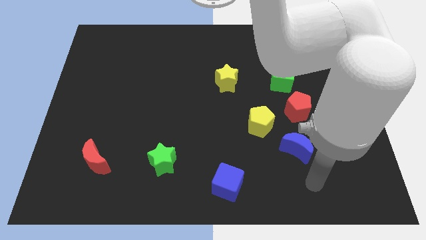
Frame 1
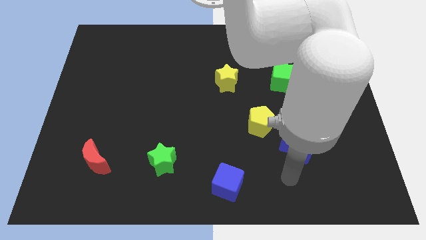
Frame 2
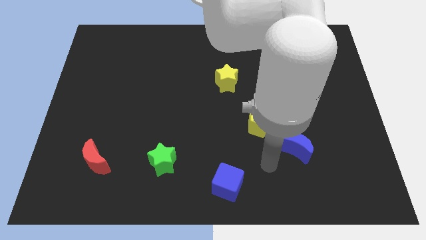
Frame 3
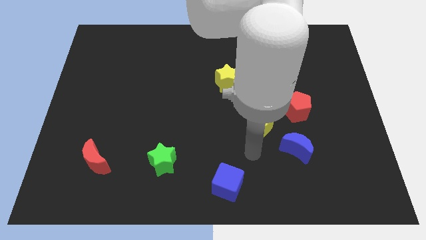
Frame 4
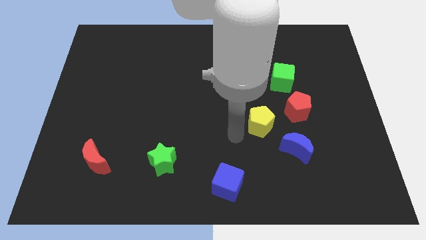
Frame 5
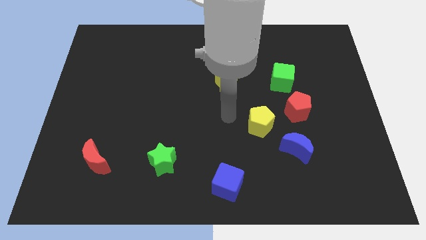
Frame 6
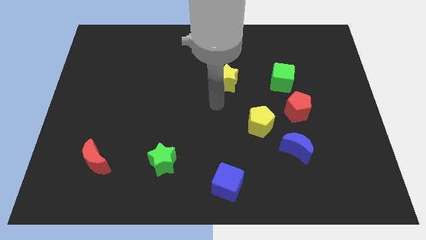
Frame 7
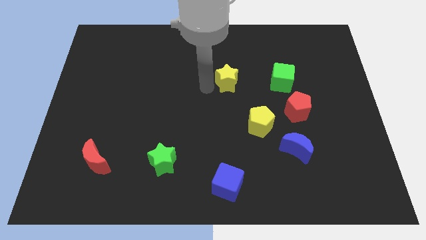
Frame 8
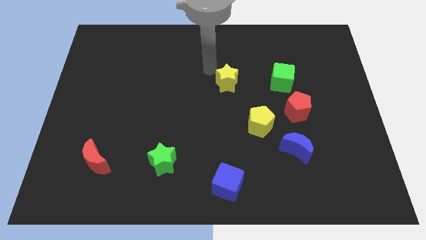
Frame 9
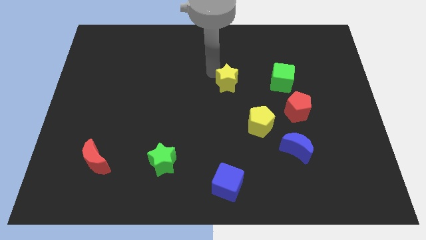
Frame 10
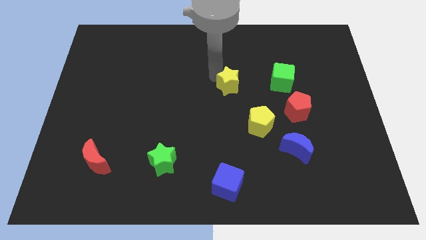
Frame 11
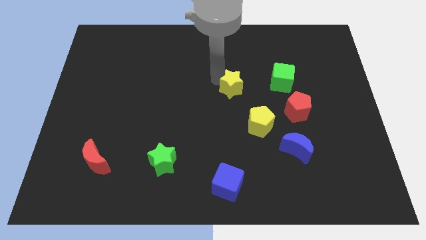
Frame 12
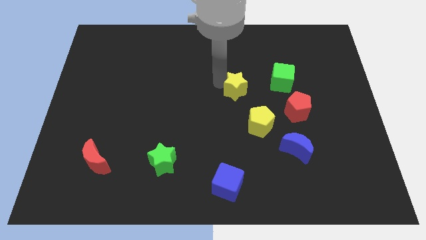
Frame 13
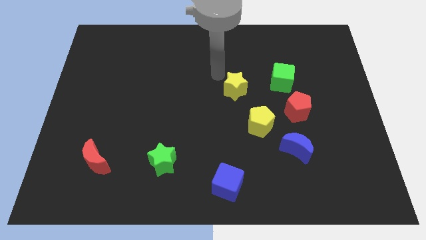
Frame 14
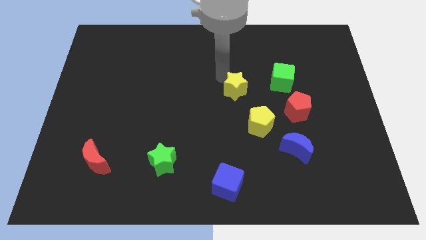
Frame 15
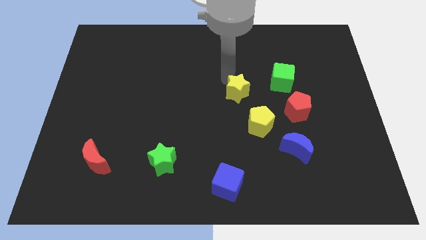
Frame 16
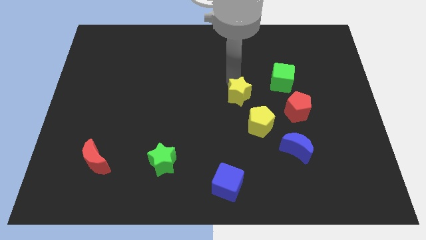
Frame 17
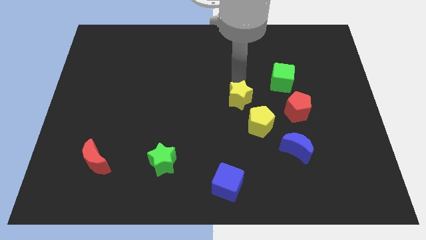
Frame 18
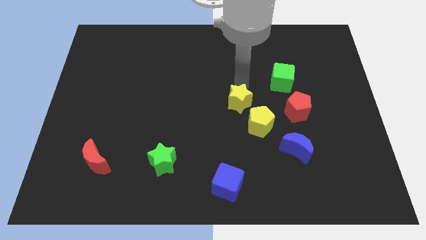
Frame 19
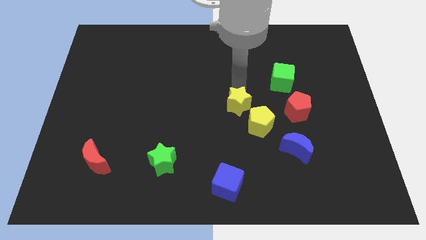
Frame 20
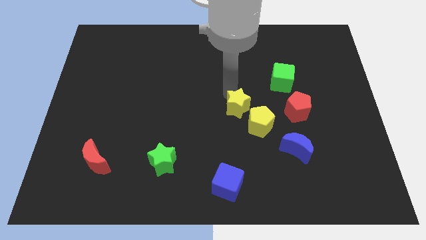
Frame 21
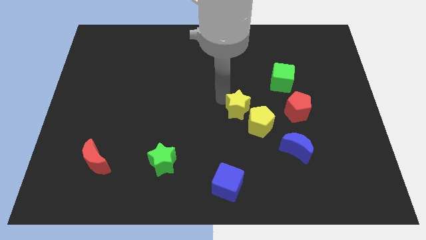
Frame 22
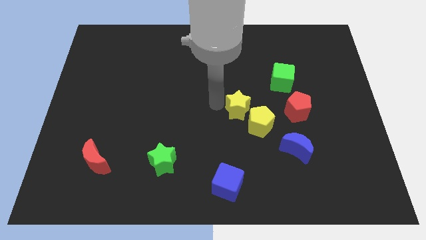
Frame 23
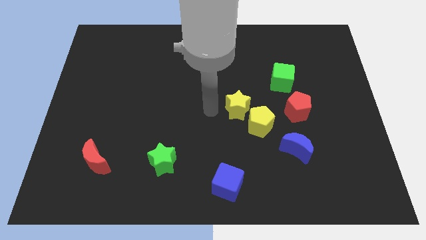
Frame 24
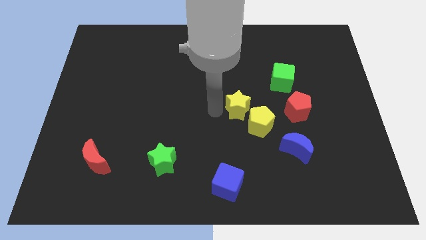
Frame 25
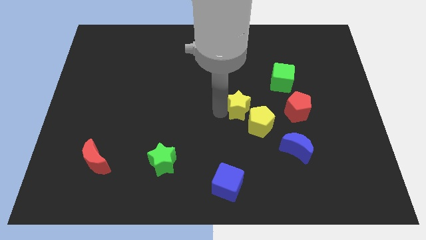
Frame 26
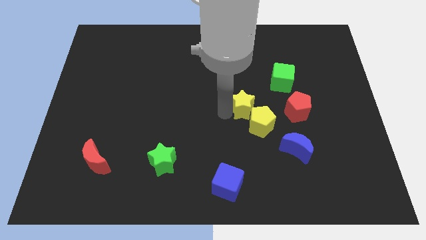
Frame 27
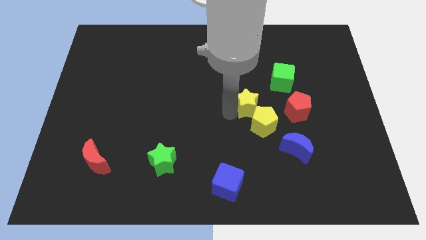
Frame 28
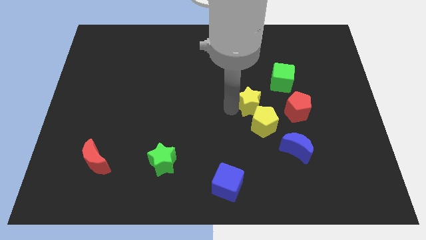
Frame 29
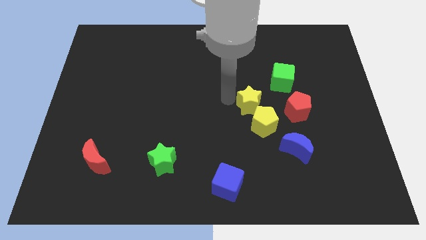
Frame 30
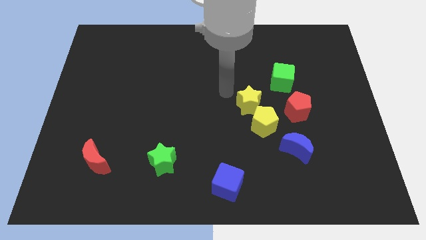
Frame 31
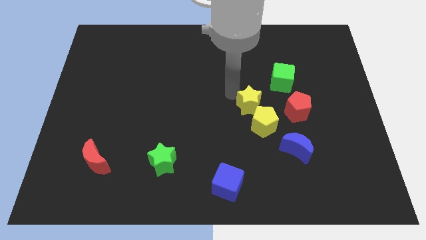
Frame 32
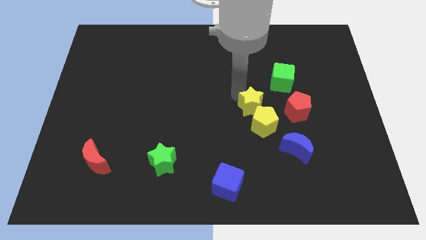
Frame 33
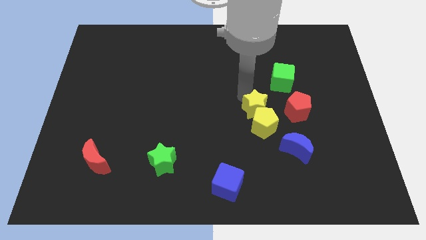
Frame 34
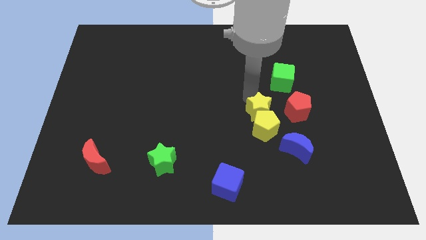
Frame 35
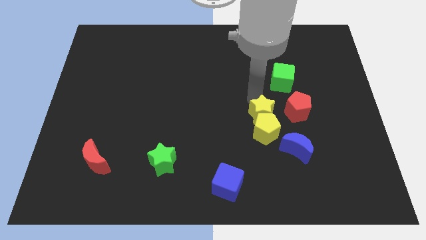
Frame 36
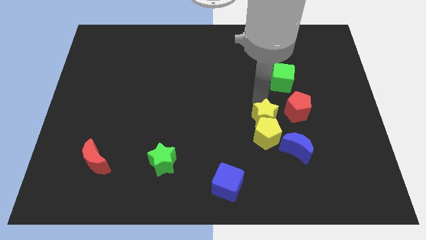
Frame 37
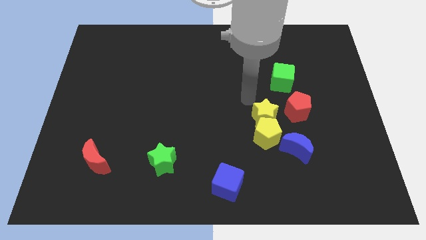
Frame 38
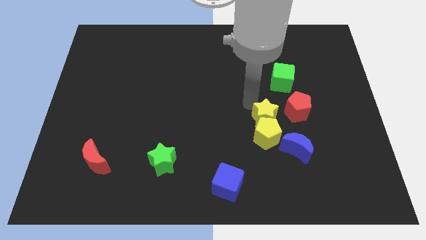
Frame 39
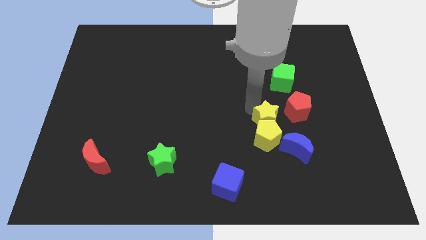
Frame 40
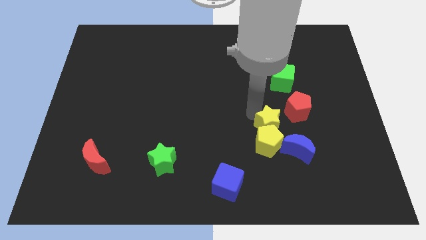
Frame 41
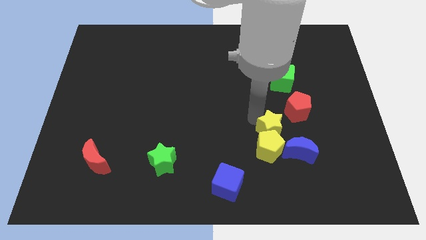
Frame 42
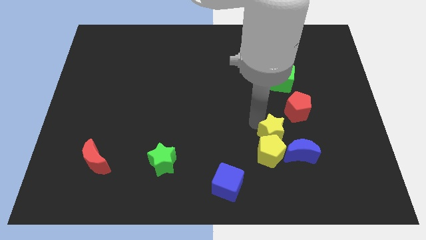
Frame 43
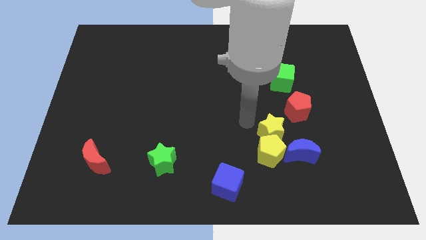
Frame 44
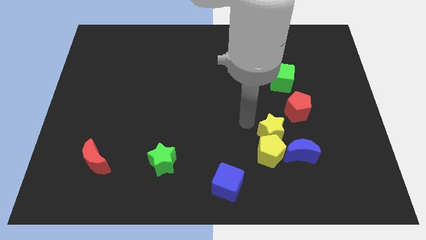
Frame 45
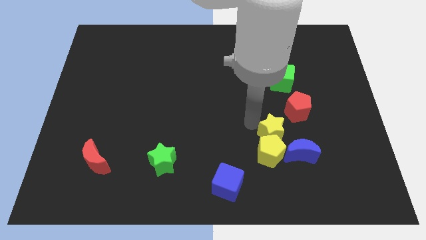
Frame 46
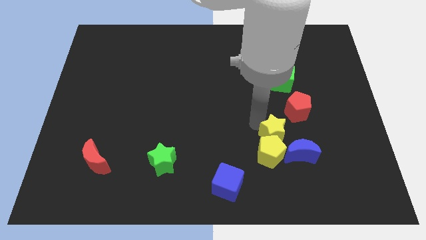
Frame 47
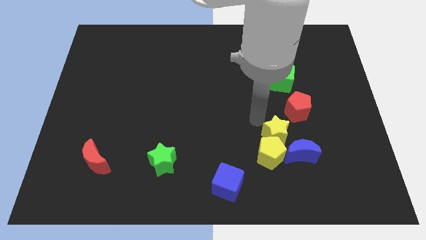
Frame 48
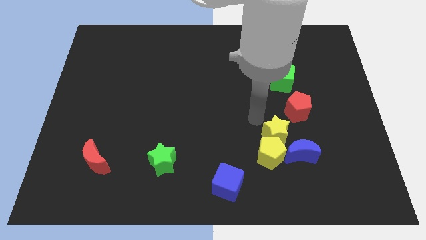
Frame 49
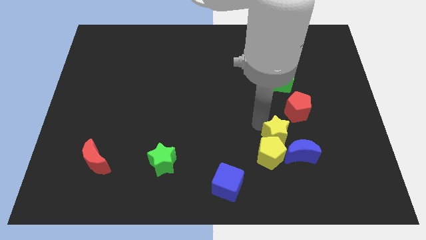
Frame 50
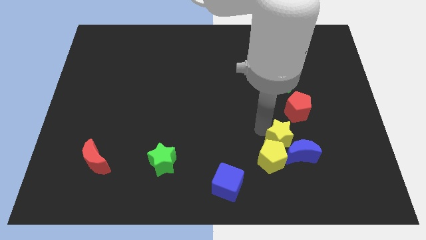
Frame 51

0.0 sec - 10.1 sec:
put the yellow star next to the blue moon

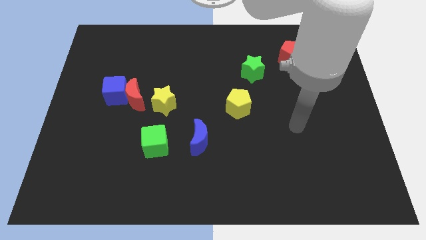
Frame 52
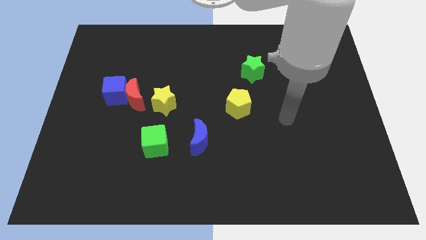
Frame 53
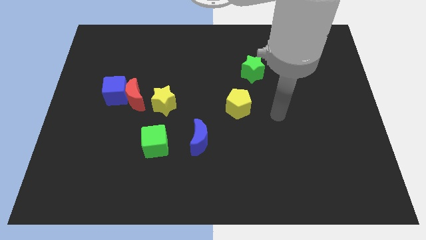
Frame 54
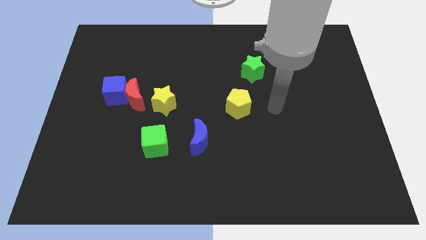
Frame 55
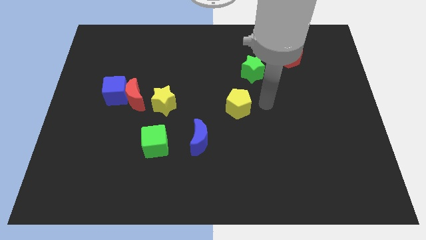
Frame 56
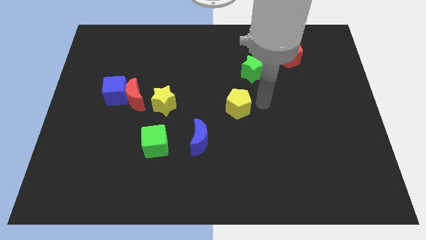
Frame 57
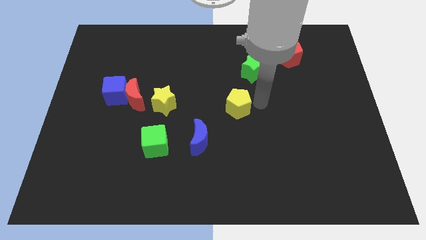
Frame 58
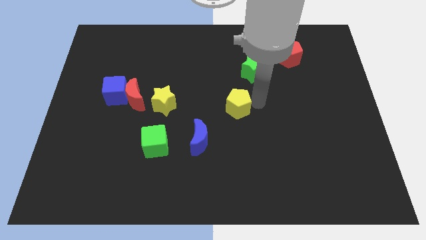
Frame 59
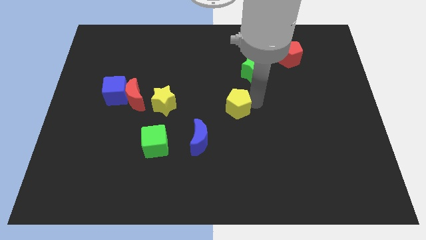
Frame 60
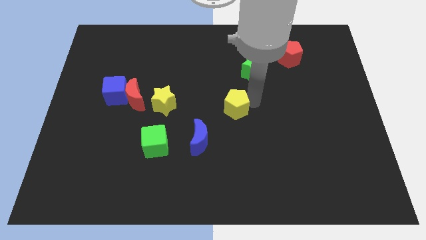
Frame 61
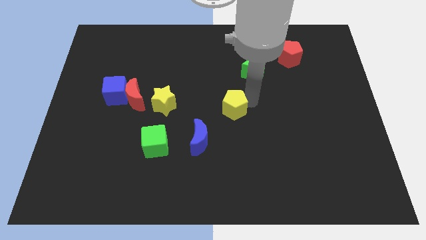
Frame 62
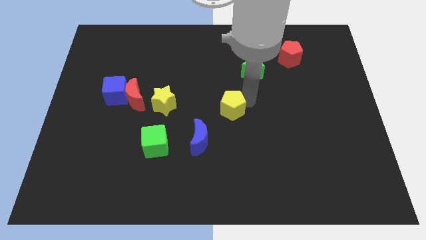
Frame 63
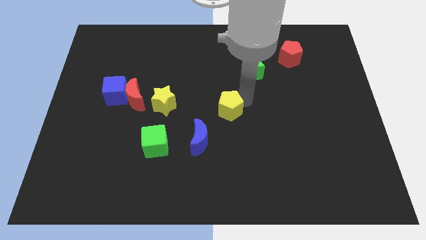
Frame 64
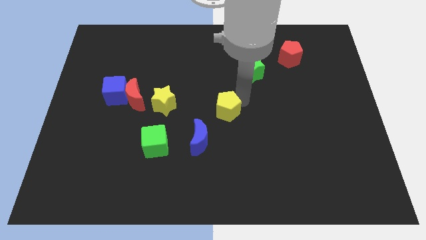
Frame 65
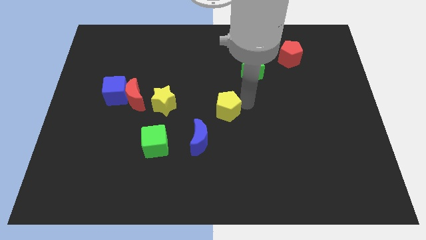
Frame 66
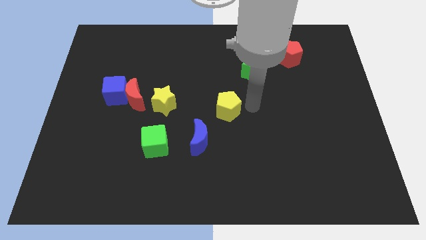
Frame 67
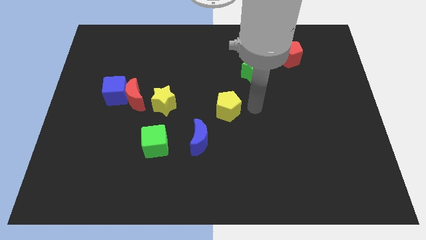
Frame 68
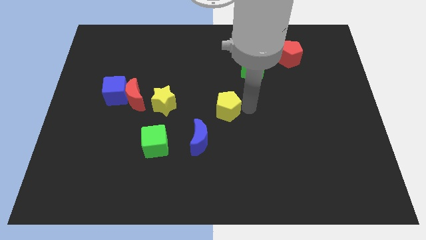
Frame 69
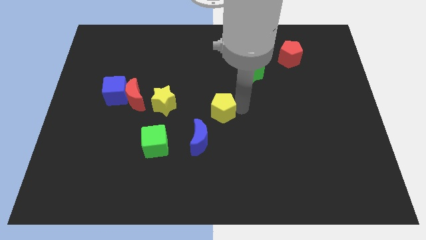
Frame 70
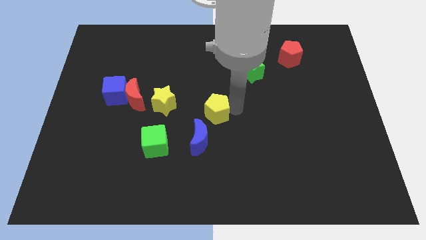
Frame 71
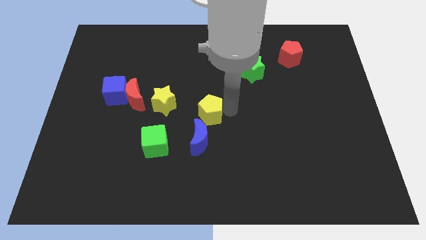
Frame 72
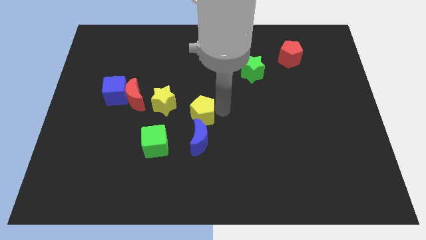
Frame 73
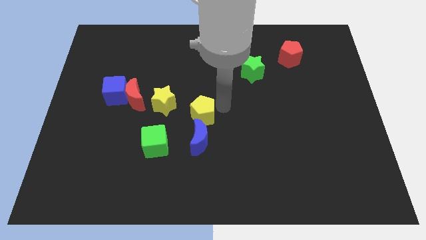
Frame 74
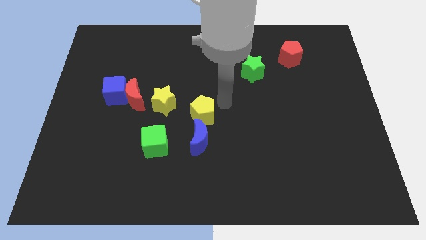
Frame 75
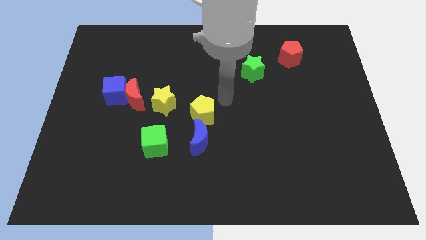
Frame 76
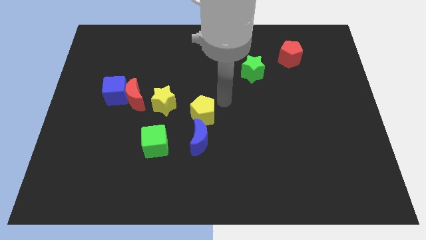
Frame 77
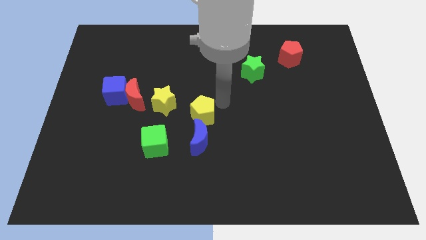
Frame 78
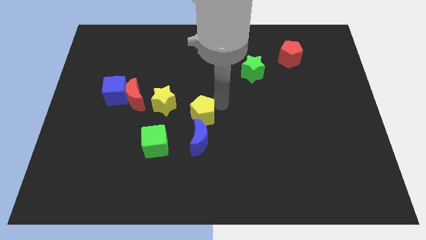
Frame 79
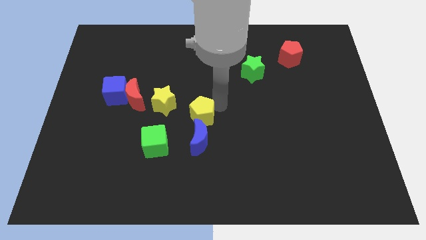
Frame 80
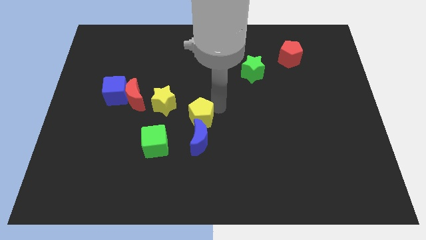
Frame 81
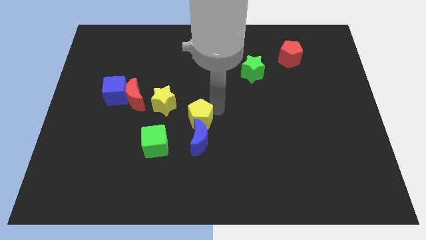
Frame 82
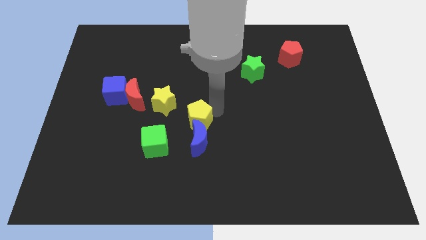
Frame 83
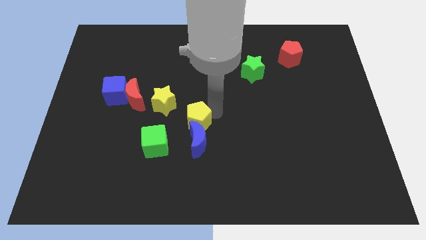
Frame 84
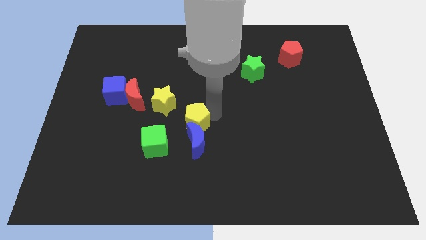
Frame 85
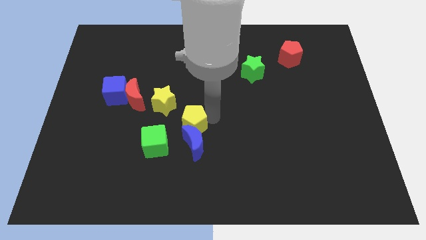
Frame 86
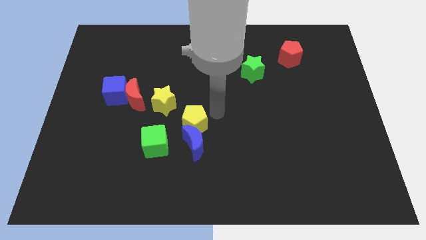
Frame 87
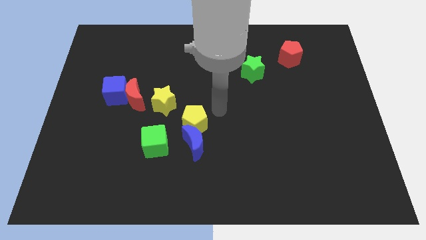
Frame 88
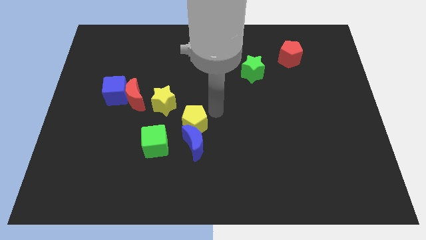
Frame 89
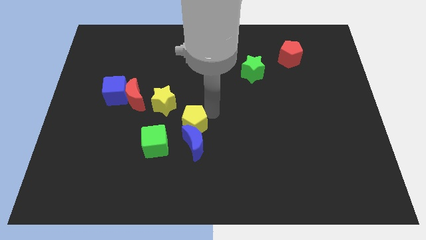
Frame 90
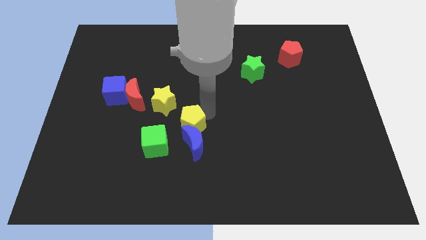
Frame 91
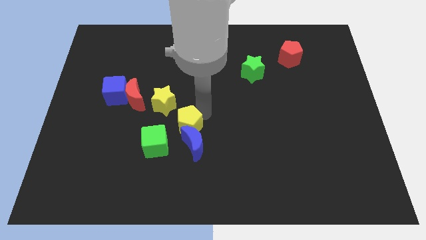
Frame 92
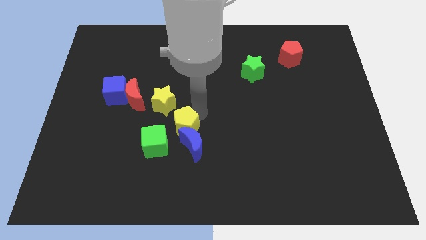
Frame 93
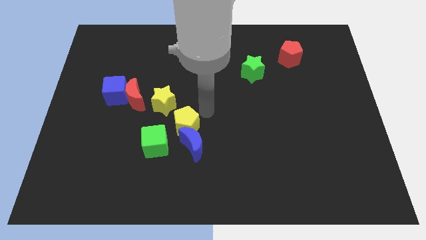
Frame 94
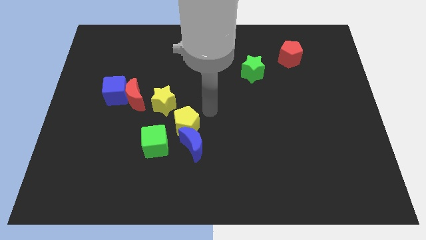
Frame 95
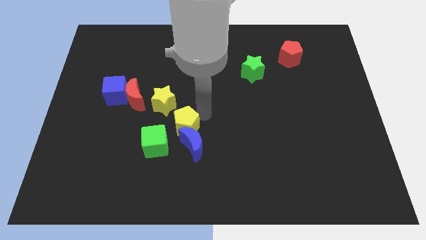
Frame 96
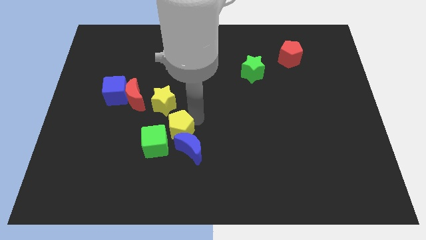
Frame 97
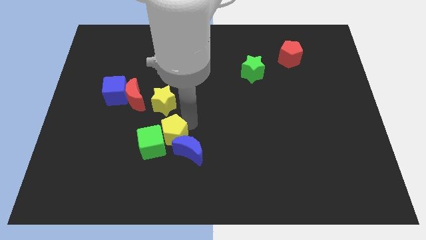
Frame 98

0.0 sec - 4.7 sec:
put the yellow pentagon close to the green cube
